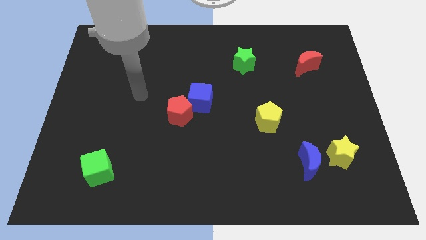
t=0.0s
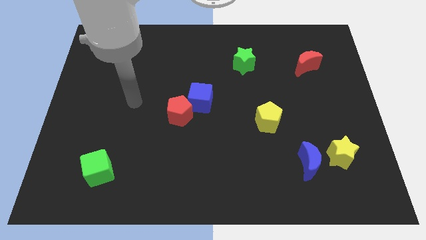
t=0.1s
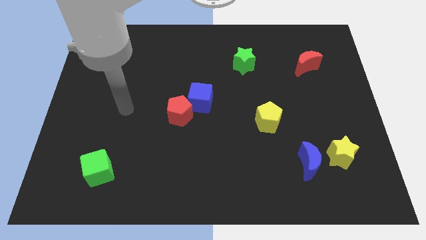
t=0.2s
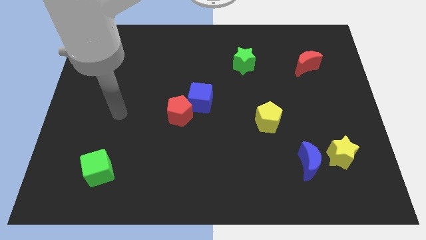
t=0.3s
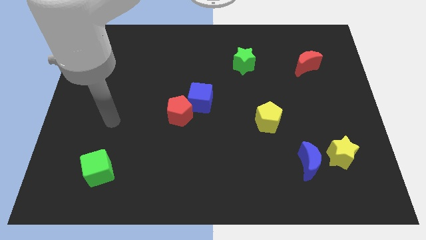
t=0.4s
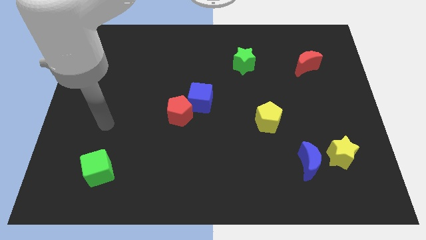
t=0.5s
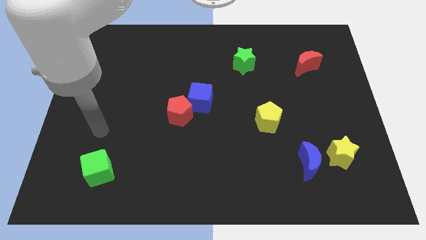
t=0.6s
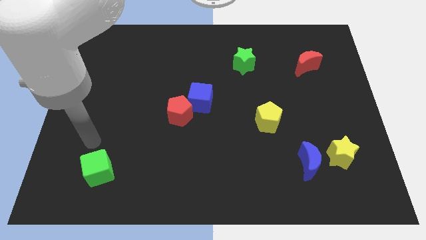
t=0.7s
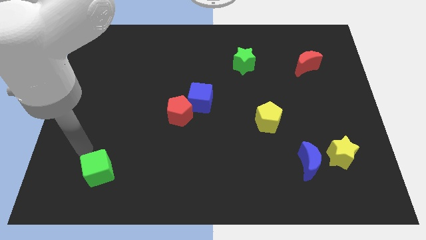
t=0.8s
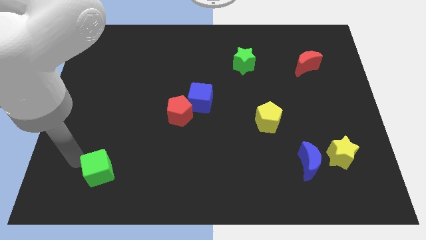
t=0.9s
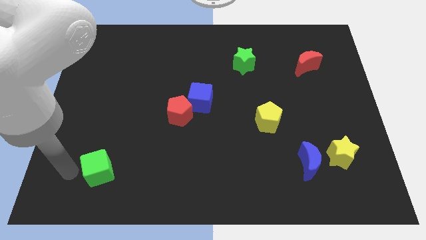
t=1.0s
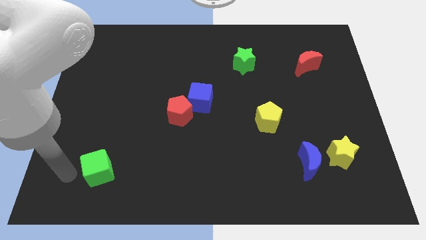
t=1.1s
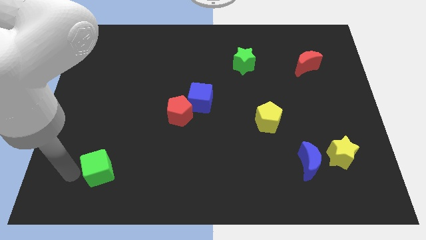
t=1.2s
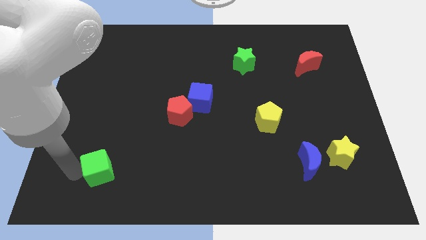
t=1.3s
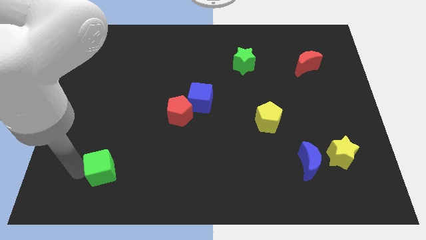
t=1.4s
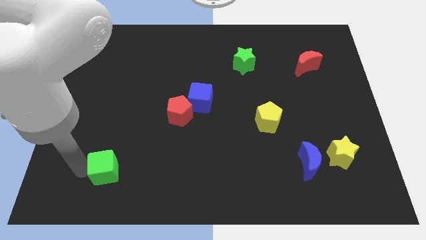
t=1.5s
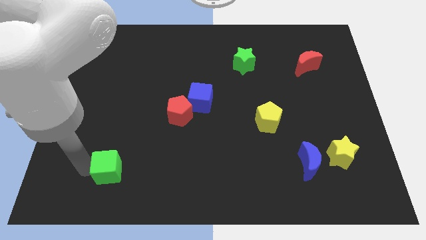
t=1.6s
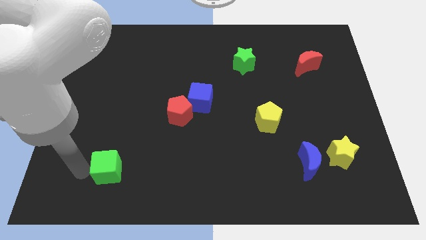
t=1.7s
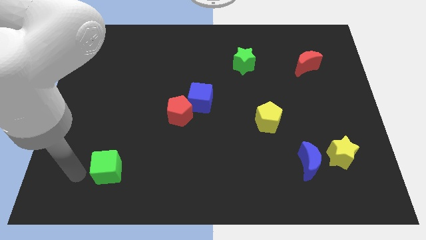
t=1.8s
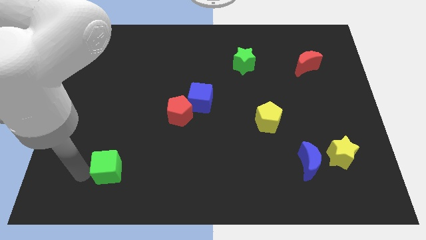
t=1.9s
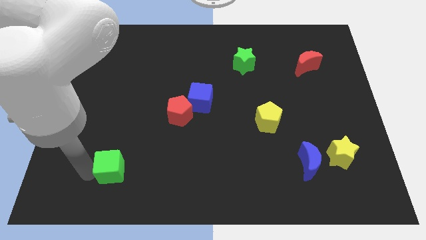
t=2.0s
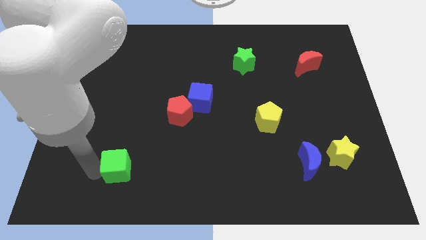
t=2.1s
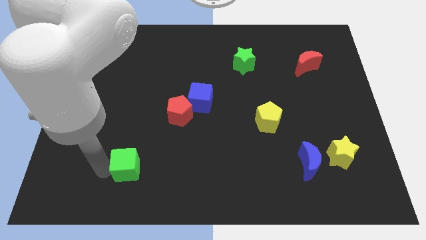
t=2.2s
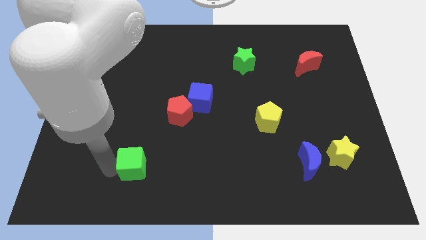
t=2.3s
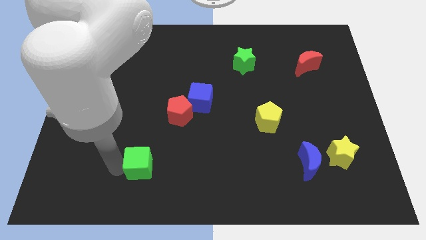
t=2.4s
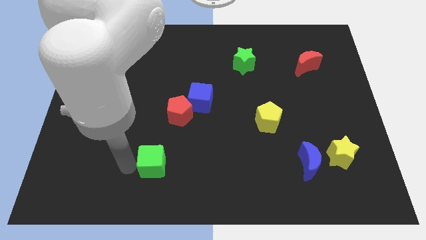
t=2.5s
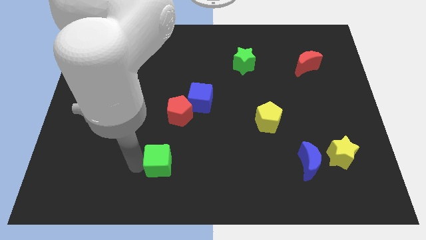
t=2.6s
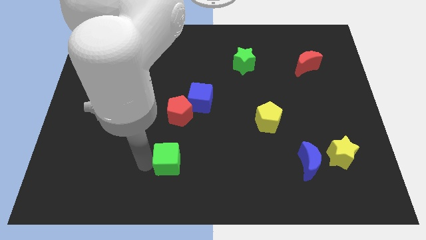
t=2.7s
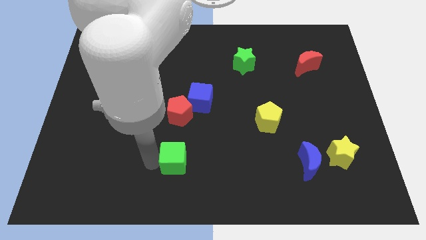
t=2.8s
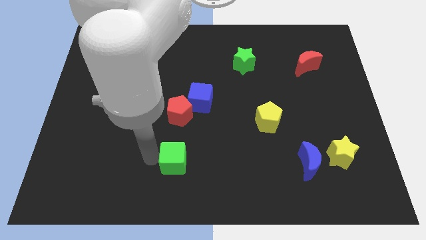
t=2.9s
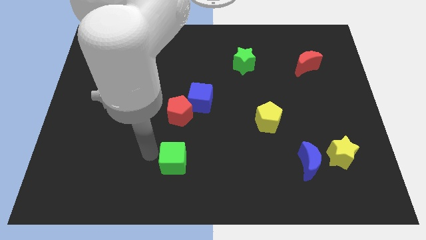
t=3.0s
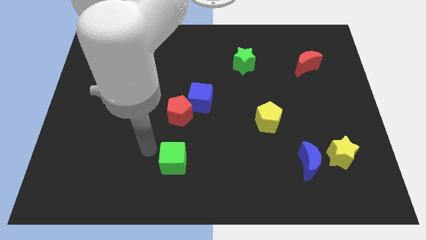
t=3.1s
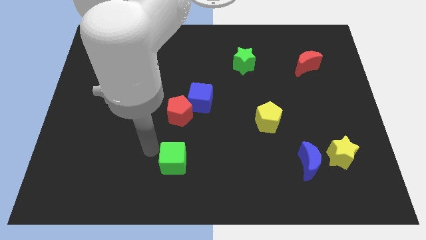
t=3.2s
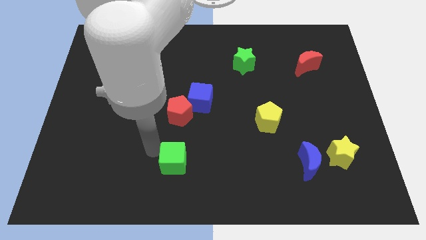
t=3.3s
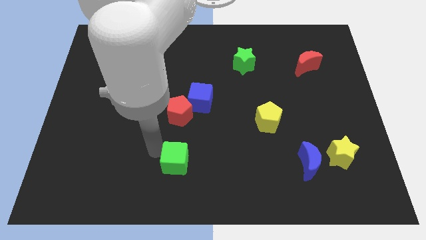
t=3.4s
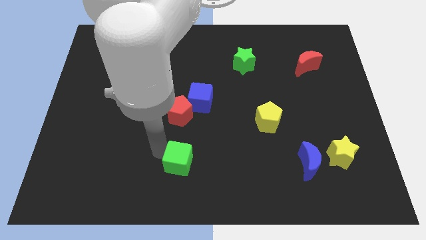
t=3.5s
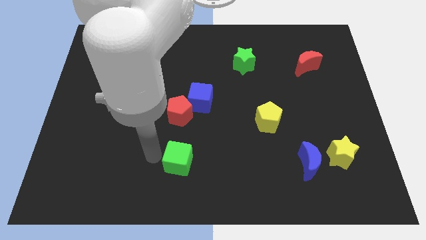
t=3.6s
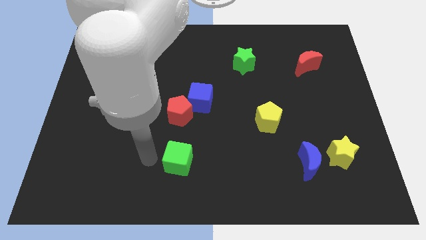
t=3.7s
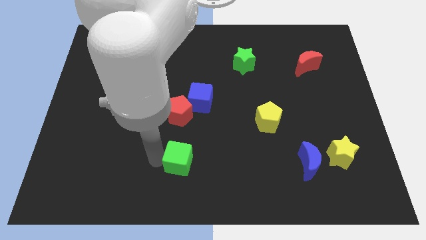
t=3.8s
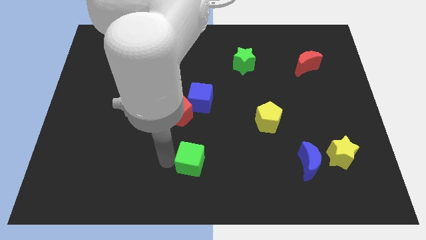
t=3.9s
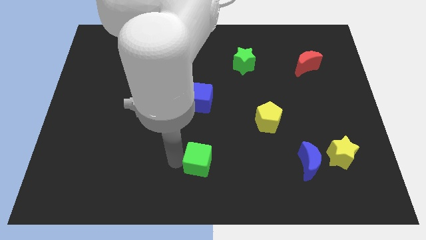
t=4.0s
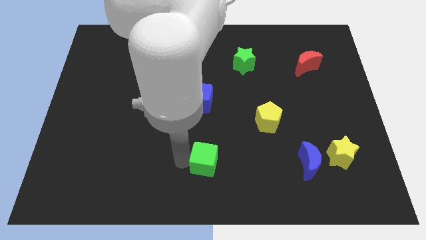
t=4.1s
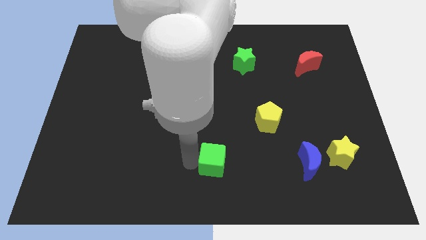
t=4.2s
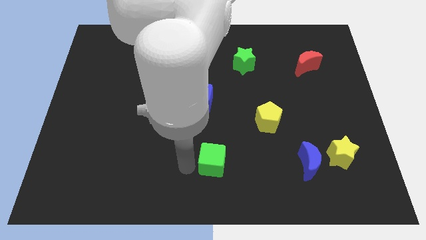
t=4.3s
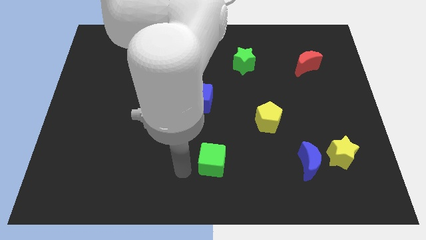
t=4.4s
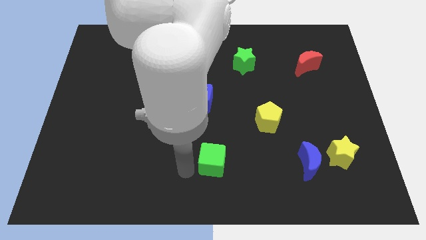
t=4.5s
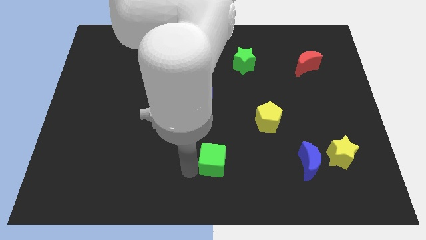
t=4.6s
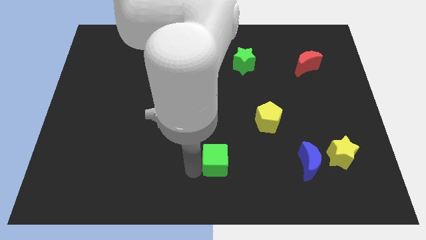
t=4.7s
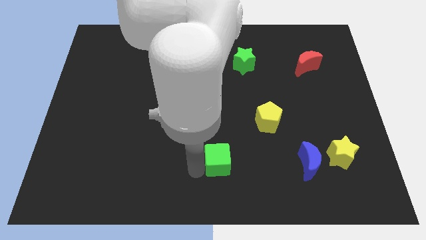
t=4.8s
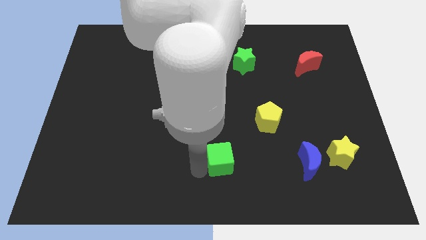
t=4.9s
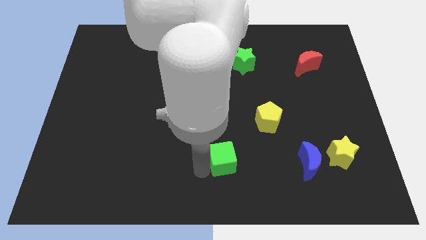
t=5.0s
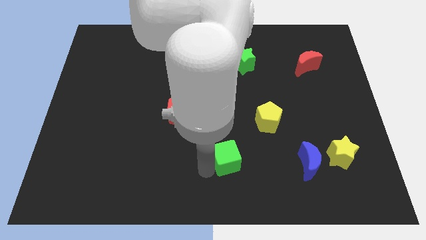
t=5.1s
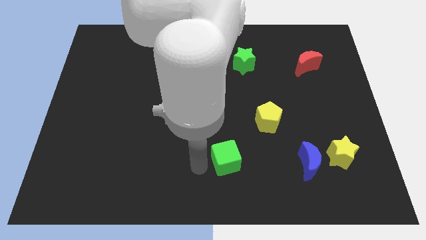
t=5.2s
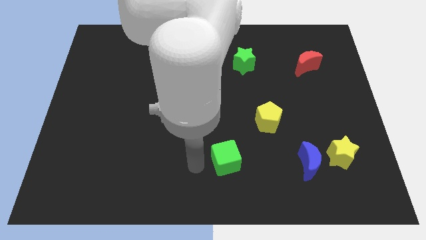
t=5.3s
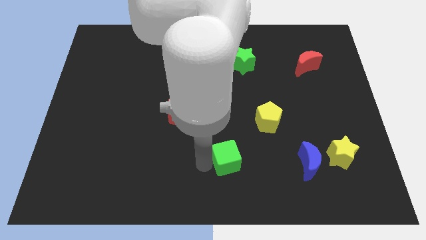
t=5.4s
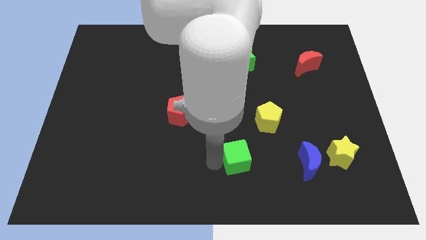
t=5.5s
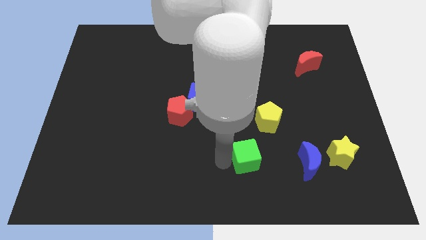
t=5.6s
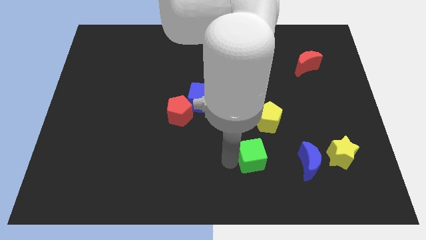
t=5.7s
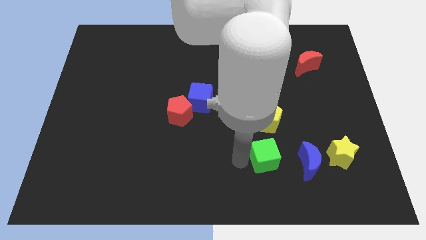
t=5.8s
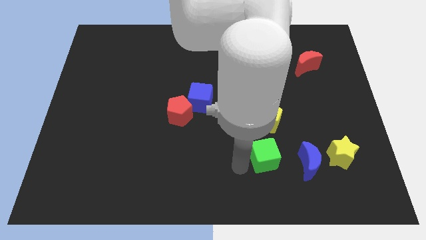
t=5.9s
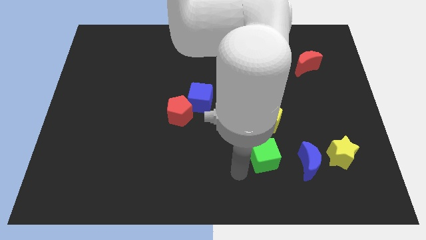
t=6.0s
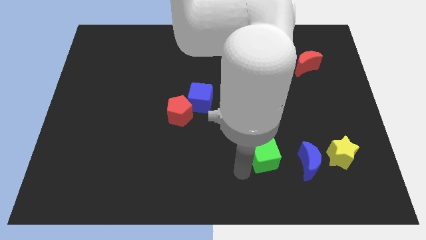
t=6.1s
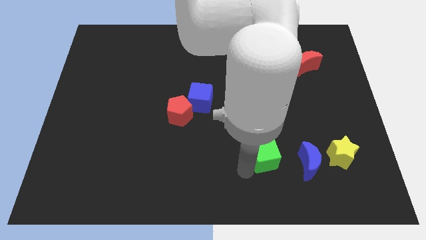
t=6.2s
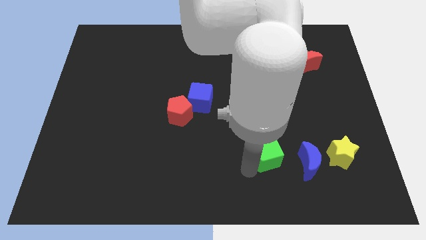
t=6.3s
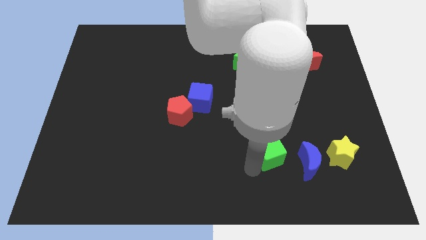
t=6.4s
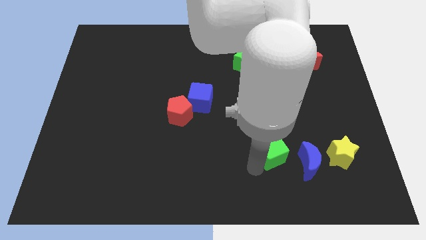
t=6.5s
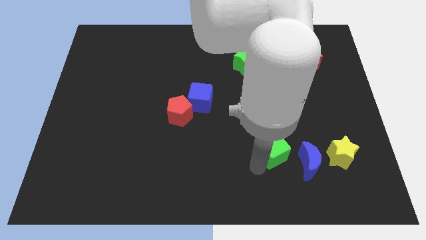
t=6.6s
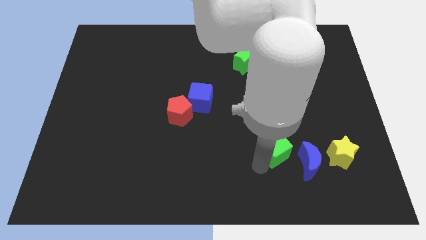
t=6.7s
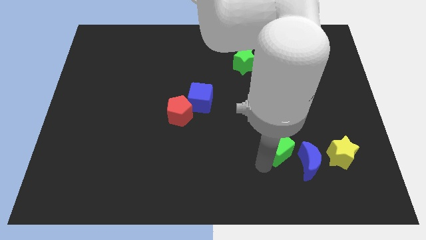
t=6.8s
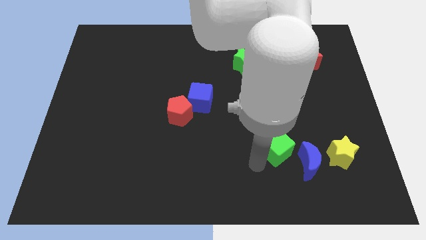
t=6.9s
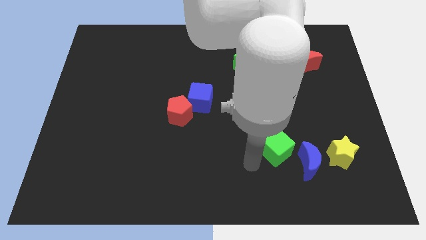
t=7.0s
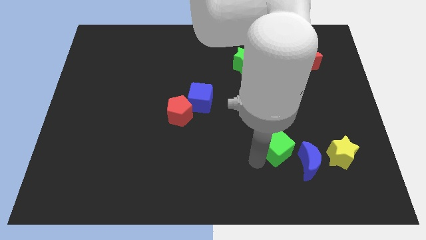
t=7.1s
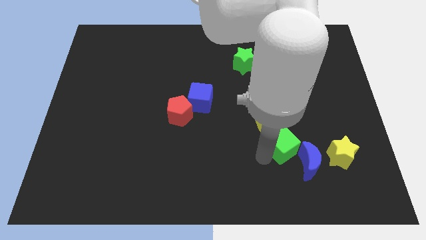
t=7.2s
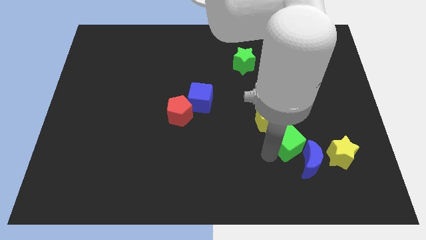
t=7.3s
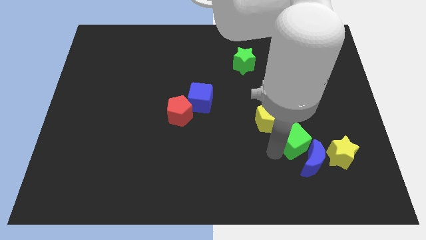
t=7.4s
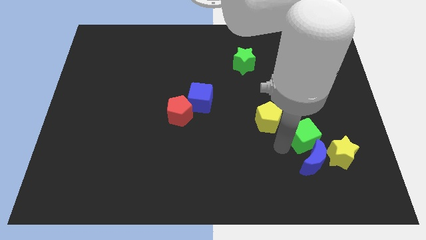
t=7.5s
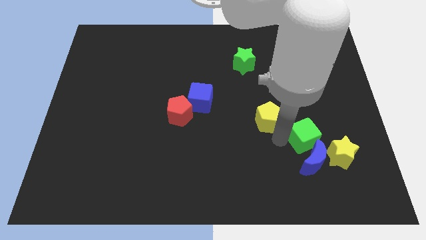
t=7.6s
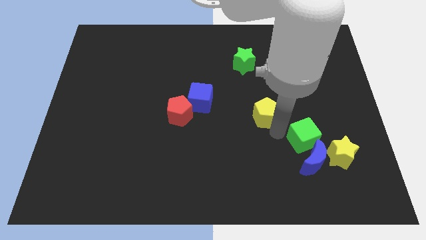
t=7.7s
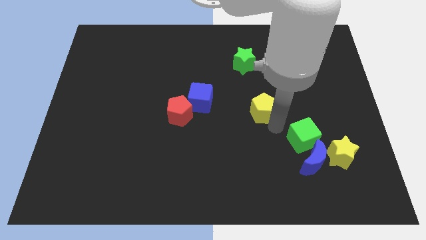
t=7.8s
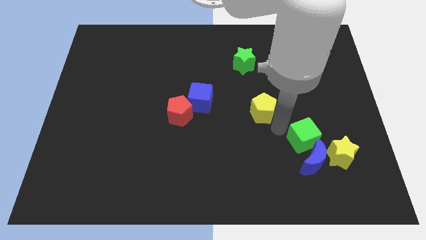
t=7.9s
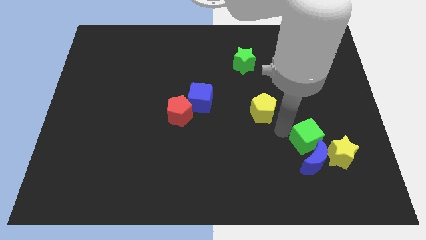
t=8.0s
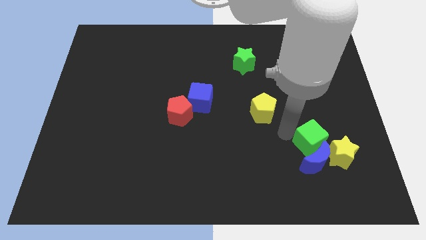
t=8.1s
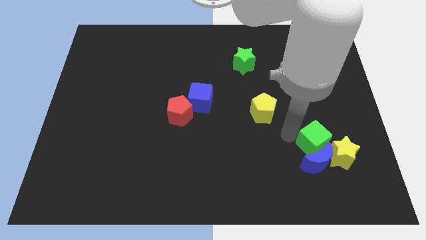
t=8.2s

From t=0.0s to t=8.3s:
move the green cube towards the yellow star
